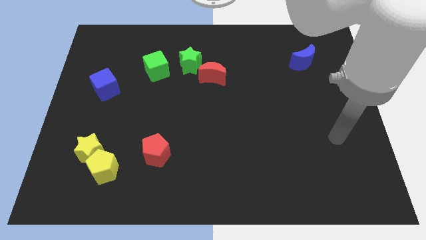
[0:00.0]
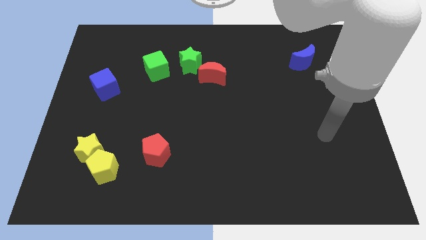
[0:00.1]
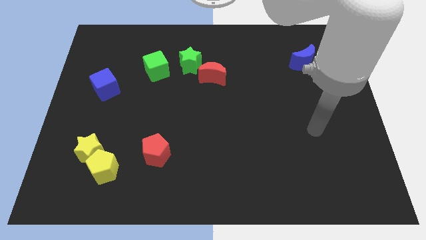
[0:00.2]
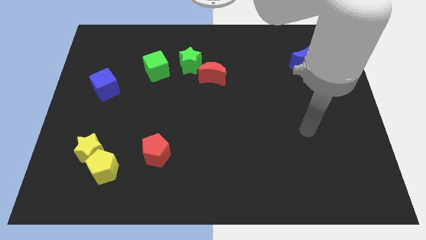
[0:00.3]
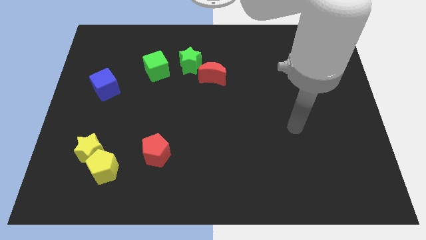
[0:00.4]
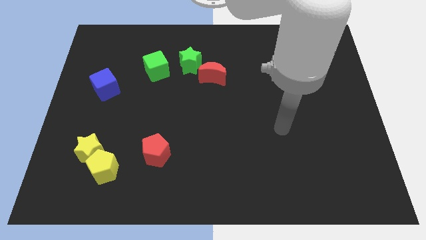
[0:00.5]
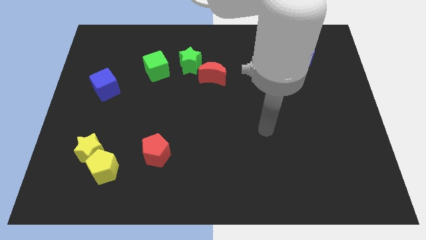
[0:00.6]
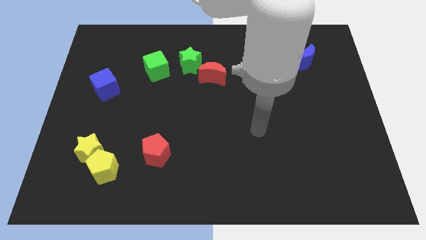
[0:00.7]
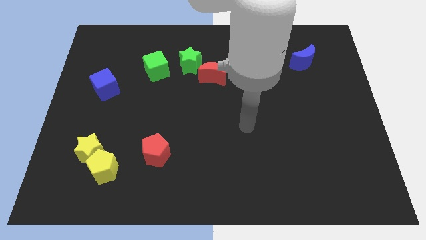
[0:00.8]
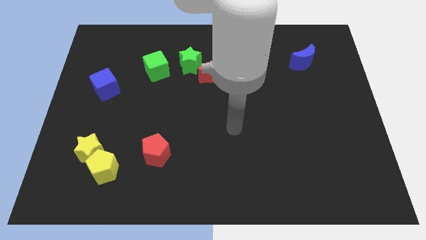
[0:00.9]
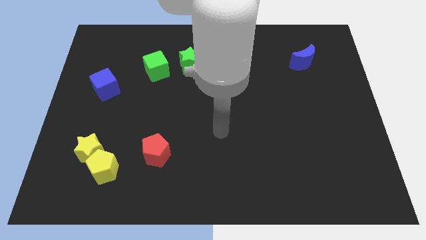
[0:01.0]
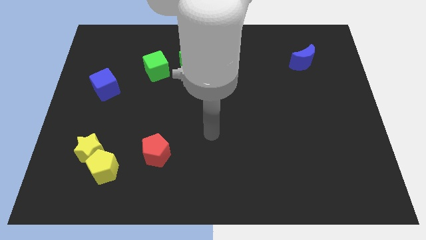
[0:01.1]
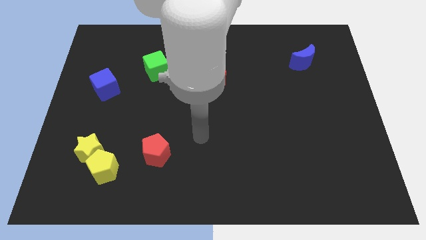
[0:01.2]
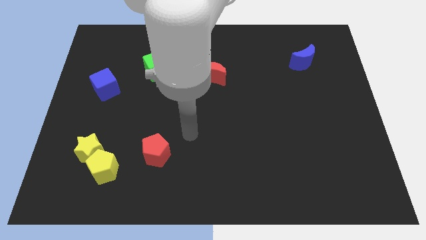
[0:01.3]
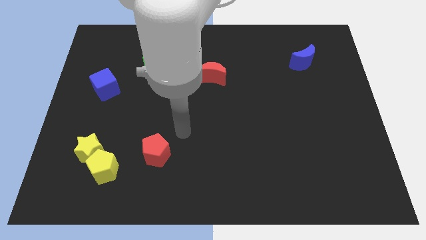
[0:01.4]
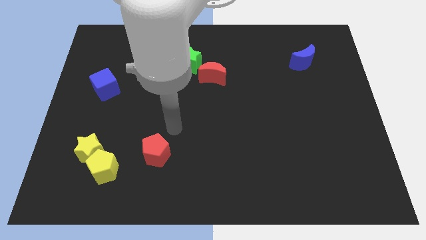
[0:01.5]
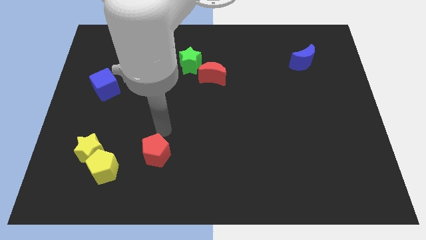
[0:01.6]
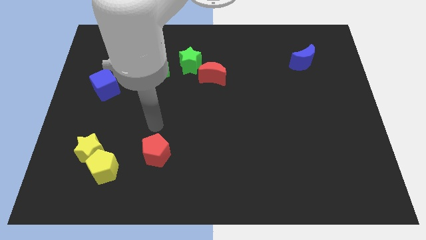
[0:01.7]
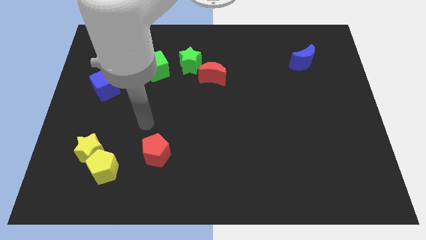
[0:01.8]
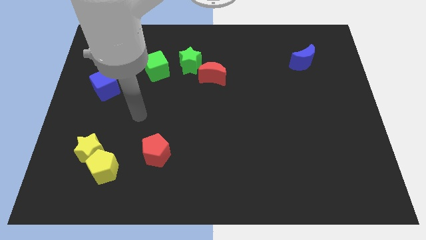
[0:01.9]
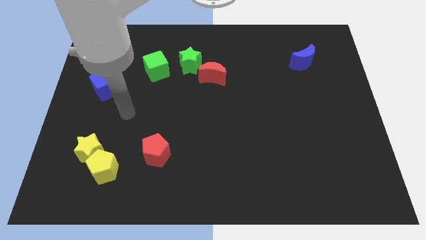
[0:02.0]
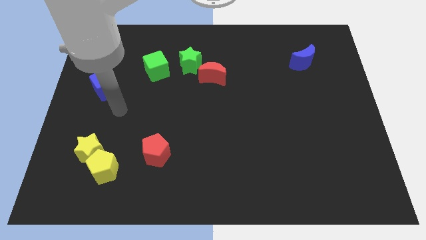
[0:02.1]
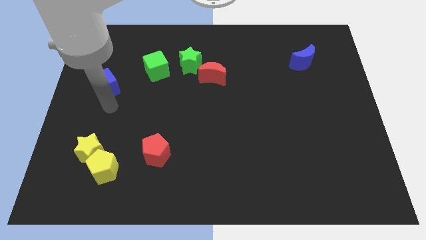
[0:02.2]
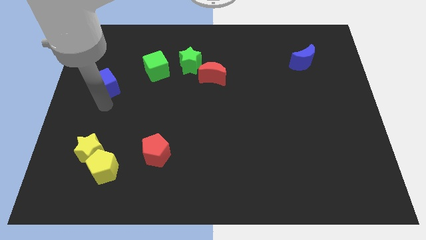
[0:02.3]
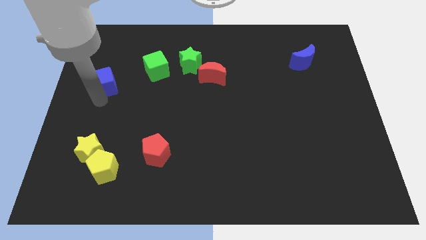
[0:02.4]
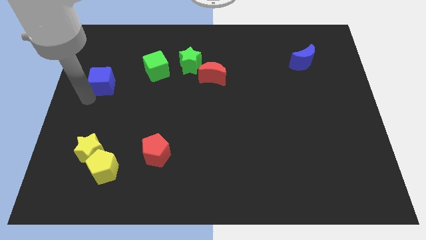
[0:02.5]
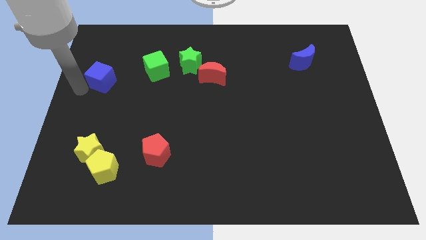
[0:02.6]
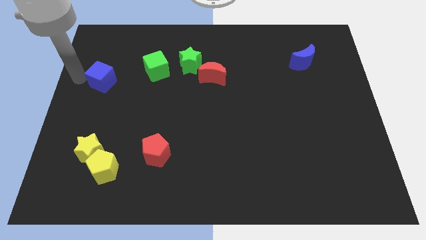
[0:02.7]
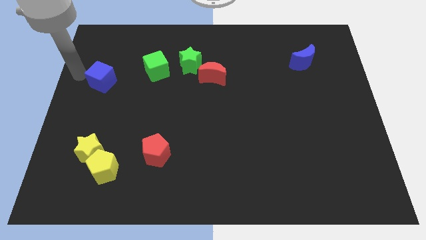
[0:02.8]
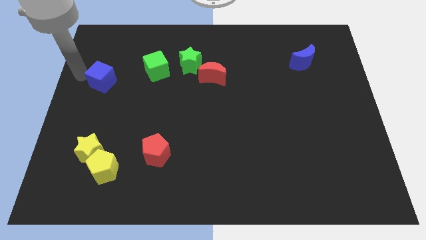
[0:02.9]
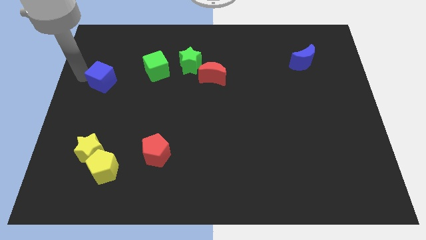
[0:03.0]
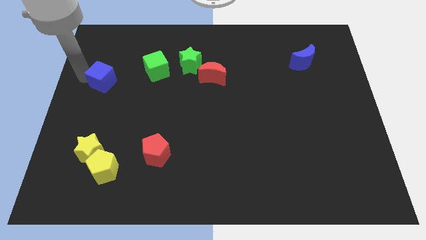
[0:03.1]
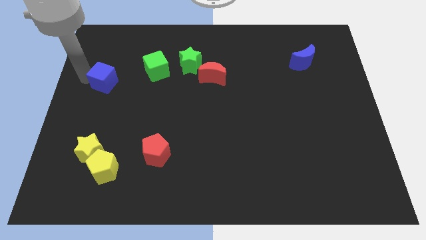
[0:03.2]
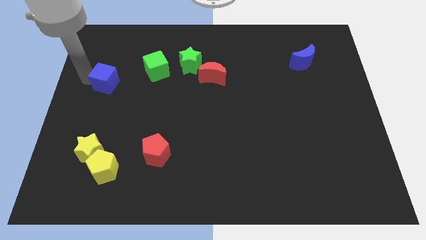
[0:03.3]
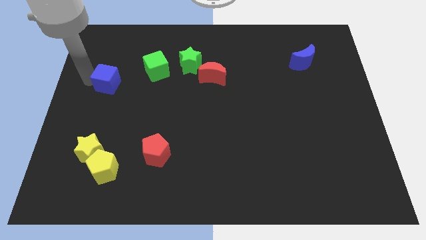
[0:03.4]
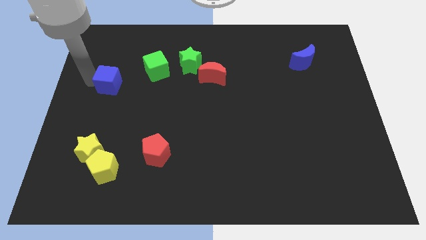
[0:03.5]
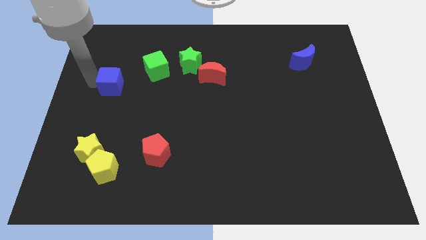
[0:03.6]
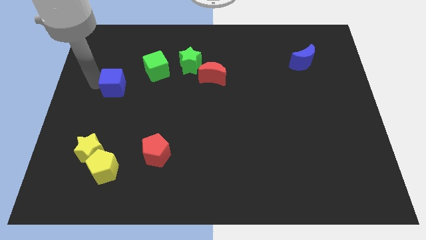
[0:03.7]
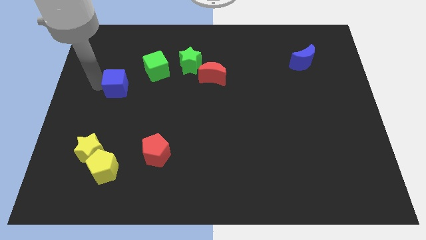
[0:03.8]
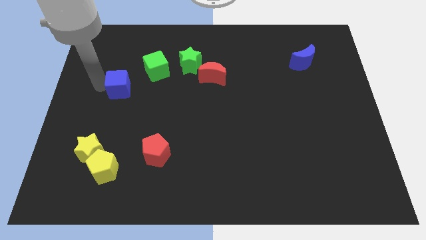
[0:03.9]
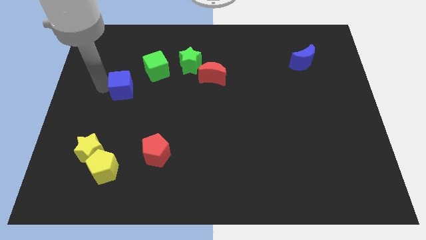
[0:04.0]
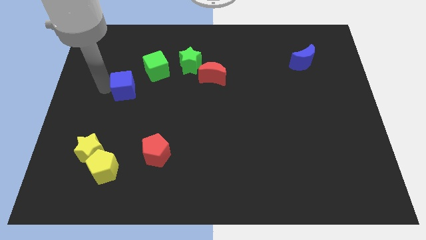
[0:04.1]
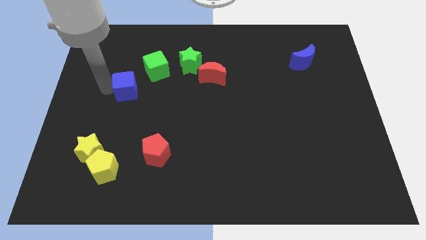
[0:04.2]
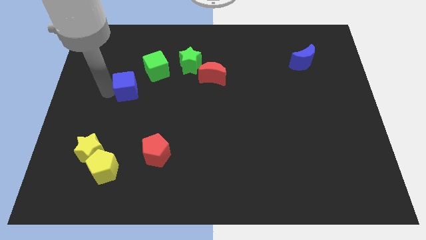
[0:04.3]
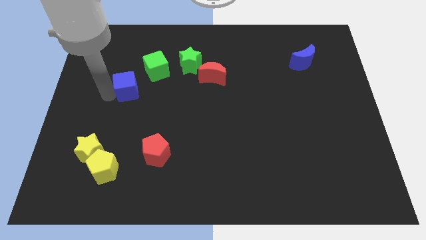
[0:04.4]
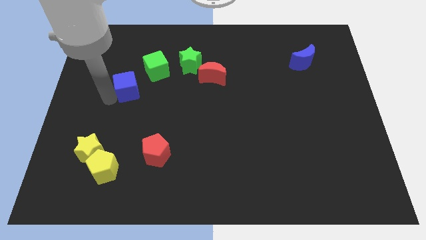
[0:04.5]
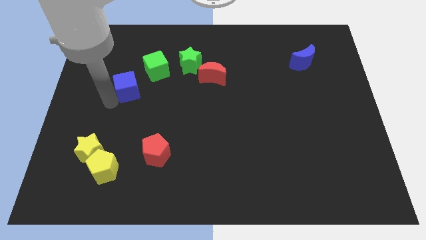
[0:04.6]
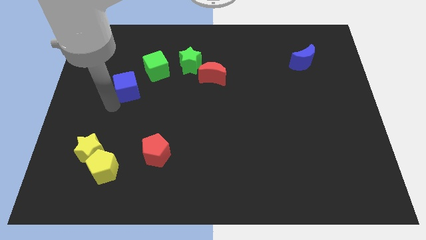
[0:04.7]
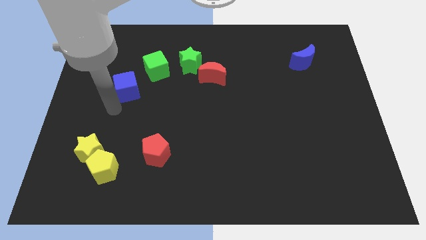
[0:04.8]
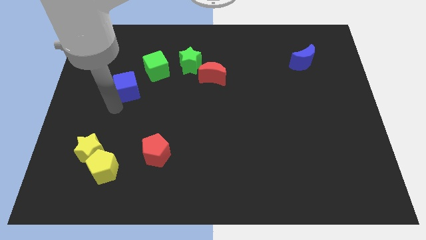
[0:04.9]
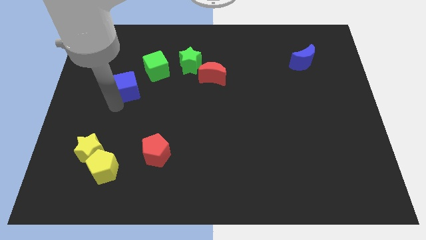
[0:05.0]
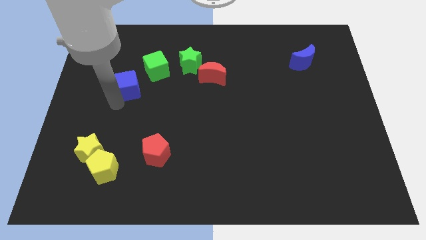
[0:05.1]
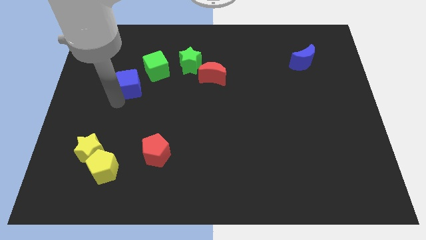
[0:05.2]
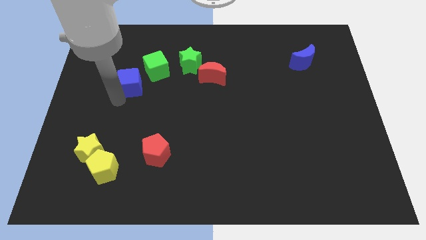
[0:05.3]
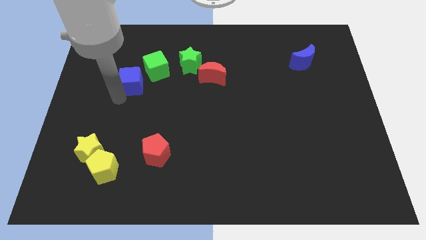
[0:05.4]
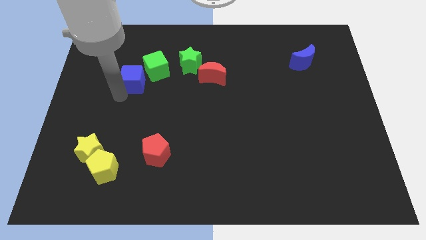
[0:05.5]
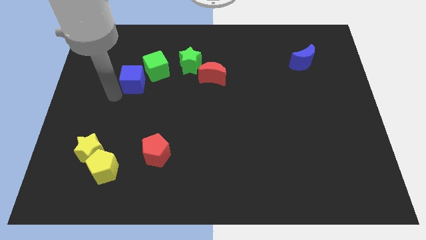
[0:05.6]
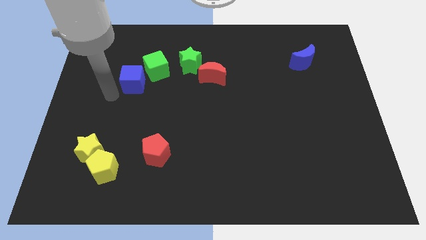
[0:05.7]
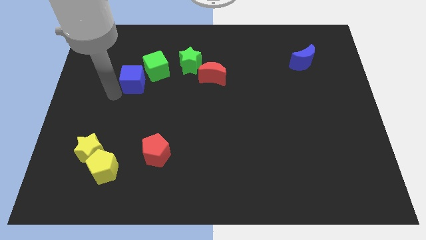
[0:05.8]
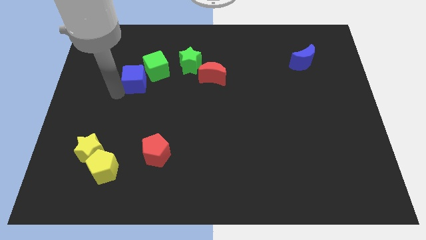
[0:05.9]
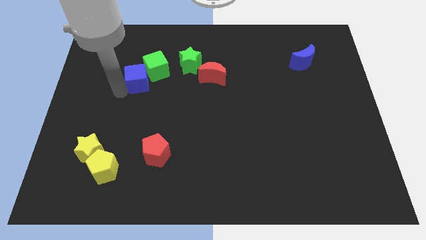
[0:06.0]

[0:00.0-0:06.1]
put the blue cube close to the green cube

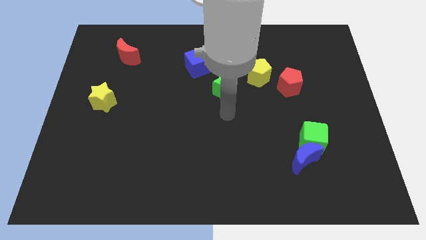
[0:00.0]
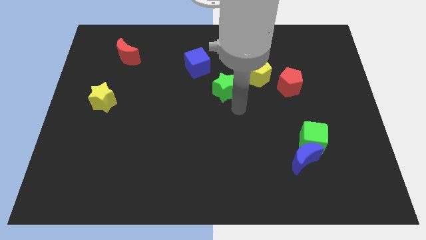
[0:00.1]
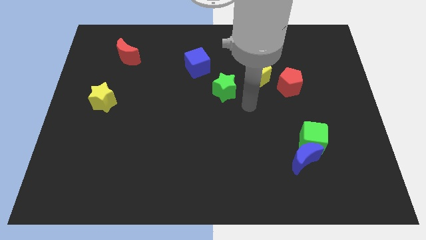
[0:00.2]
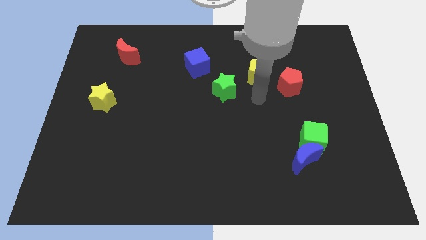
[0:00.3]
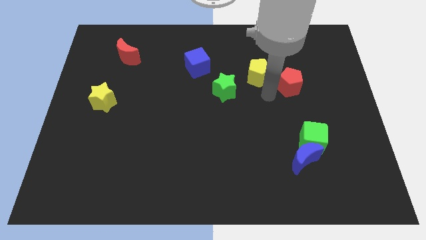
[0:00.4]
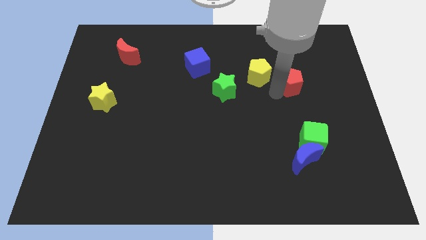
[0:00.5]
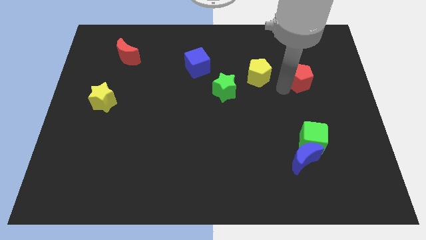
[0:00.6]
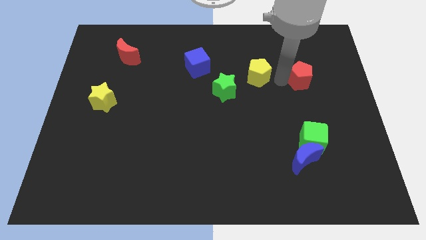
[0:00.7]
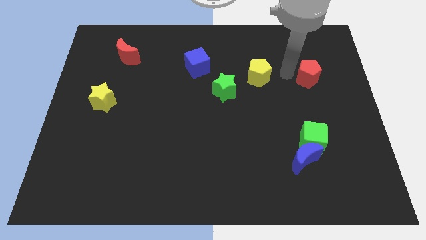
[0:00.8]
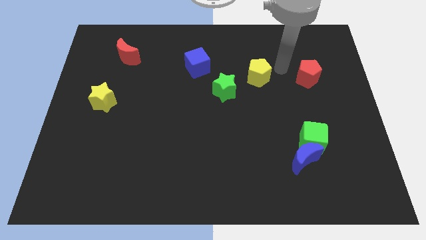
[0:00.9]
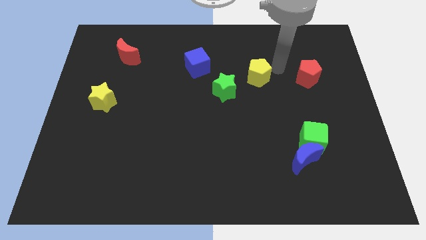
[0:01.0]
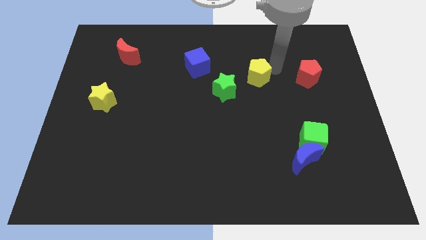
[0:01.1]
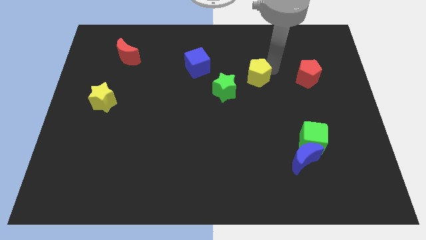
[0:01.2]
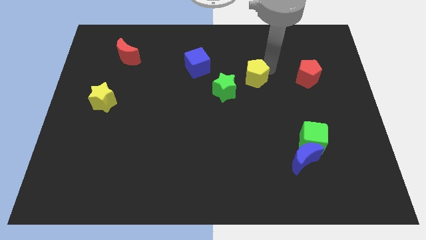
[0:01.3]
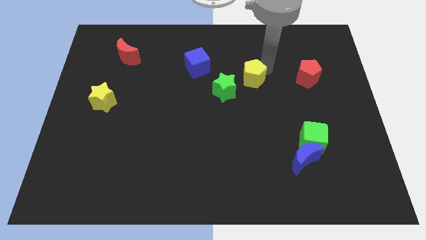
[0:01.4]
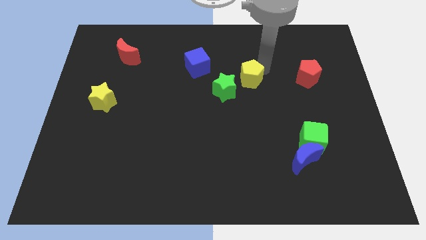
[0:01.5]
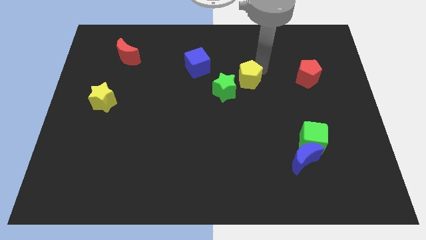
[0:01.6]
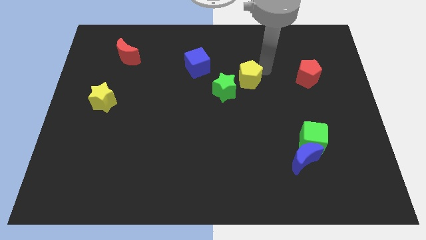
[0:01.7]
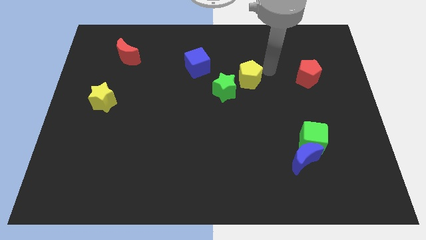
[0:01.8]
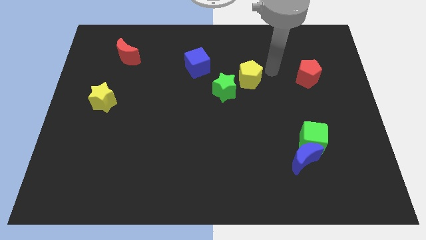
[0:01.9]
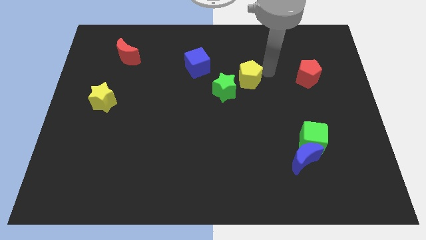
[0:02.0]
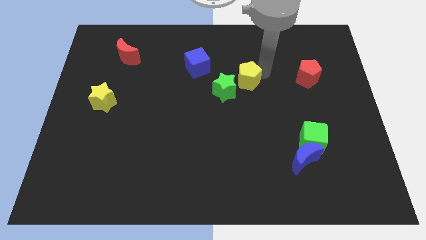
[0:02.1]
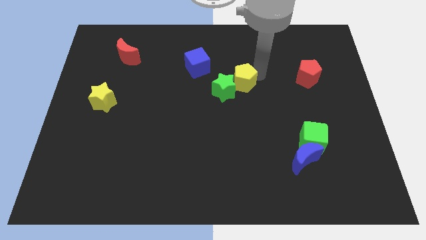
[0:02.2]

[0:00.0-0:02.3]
slide the yellow pentagon close to the green star
